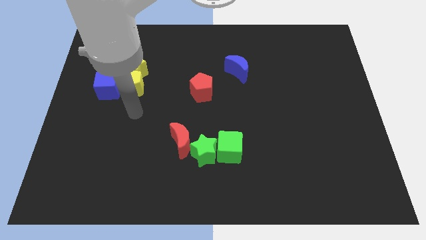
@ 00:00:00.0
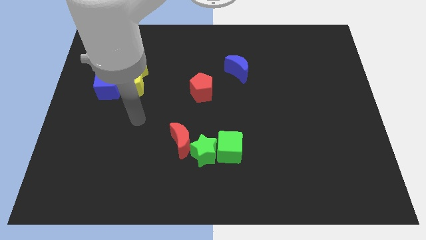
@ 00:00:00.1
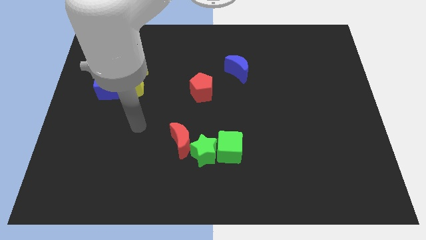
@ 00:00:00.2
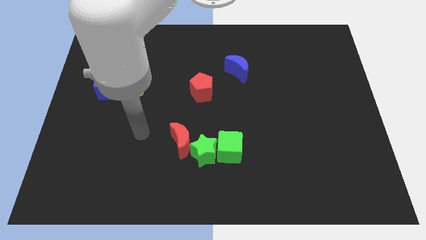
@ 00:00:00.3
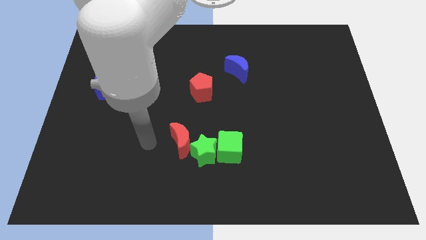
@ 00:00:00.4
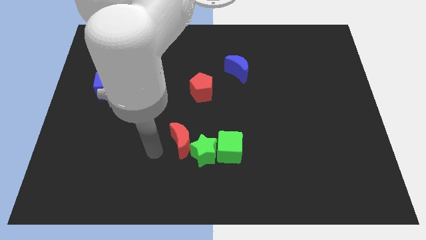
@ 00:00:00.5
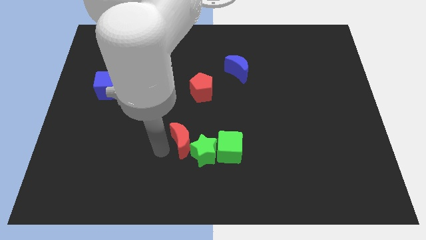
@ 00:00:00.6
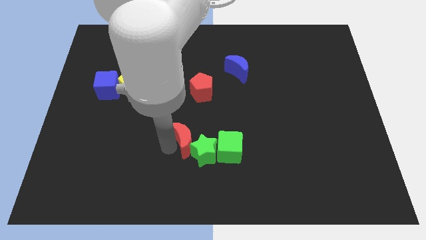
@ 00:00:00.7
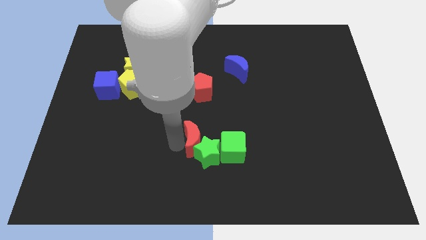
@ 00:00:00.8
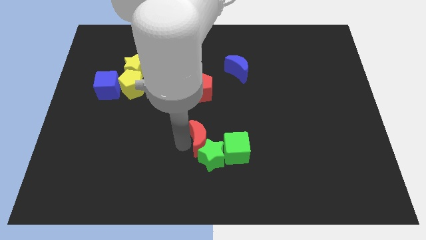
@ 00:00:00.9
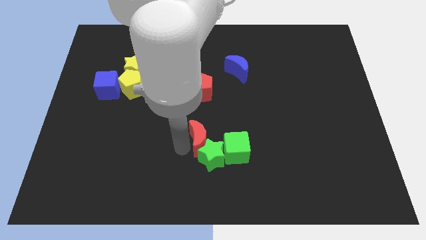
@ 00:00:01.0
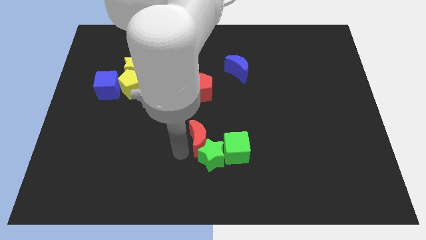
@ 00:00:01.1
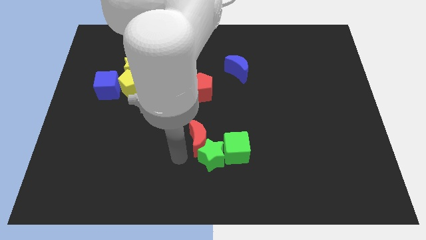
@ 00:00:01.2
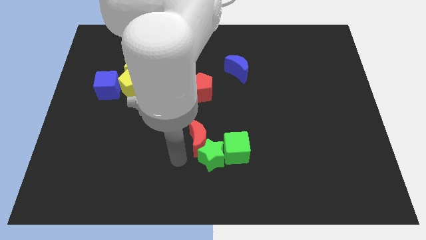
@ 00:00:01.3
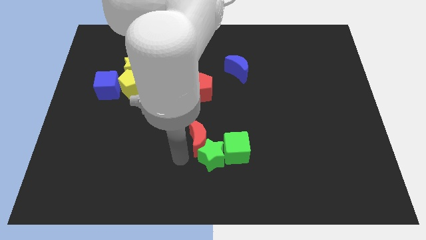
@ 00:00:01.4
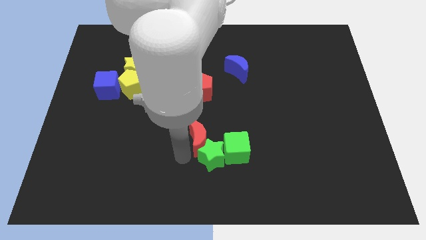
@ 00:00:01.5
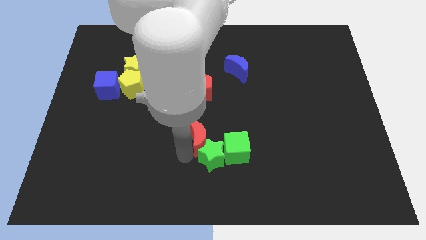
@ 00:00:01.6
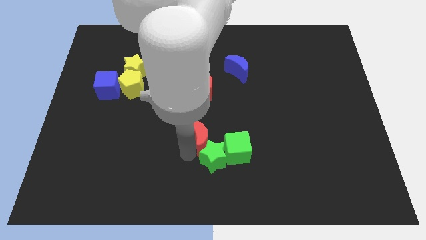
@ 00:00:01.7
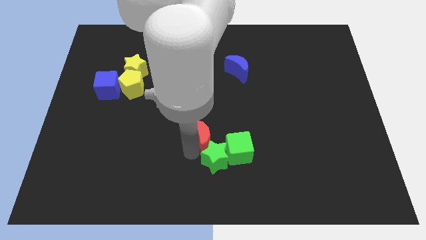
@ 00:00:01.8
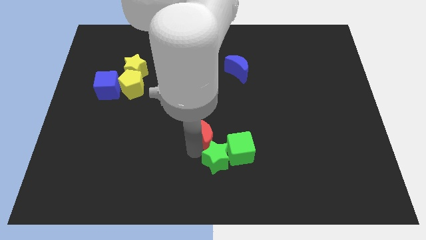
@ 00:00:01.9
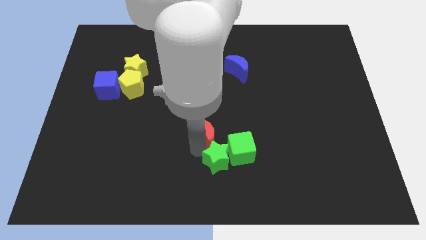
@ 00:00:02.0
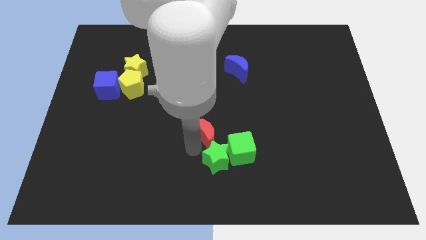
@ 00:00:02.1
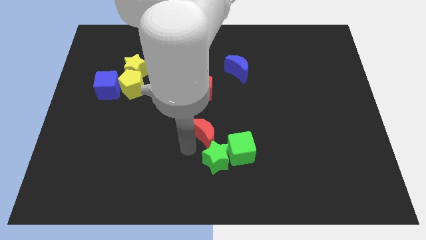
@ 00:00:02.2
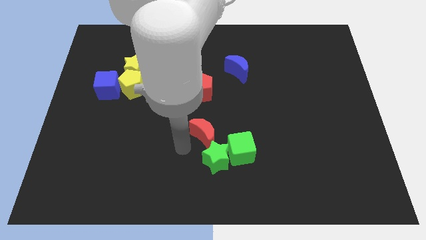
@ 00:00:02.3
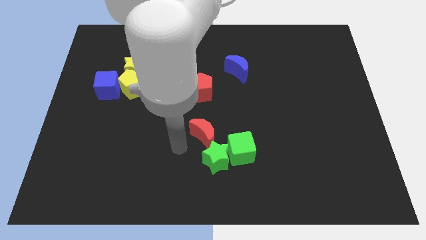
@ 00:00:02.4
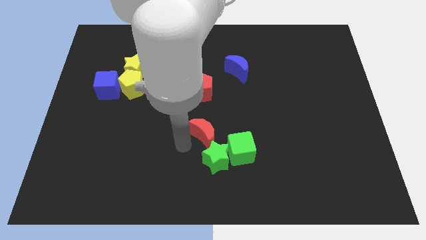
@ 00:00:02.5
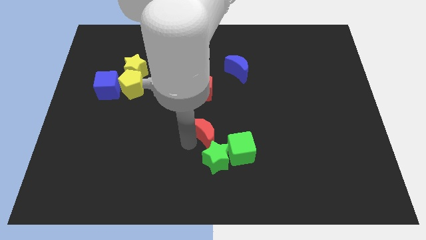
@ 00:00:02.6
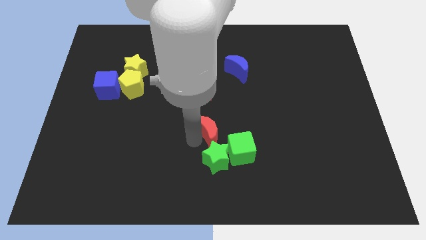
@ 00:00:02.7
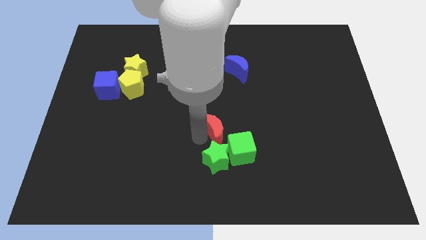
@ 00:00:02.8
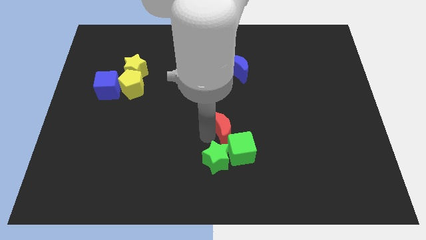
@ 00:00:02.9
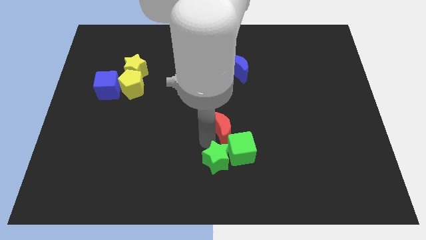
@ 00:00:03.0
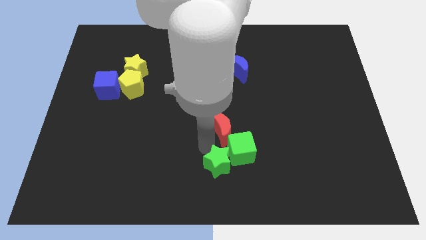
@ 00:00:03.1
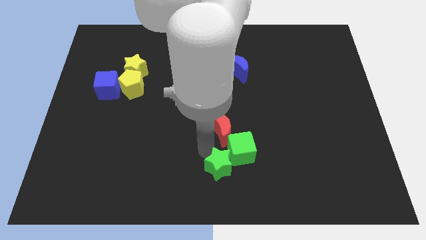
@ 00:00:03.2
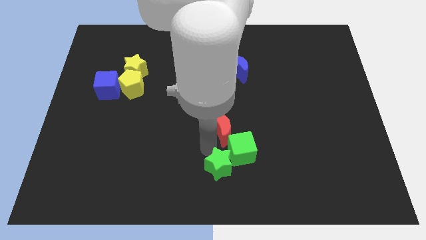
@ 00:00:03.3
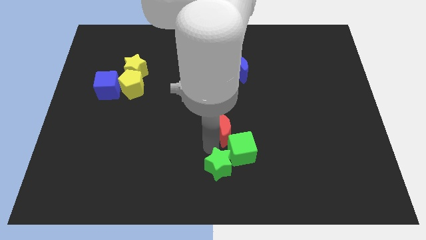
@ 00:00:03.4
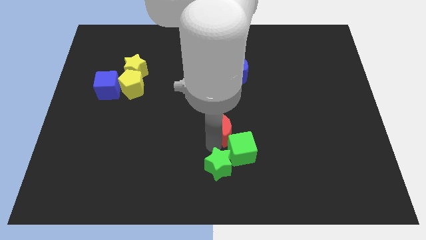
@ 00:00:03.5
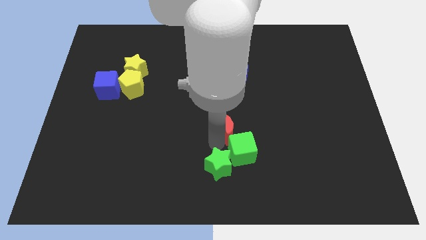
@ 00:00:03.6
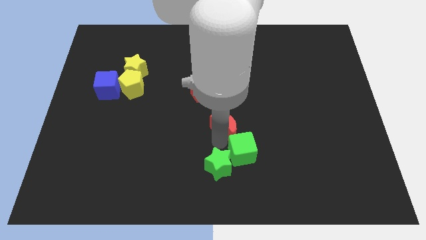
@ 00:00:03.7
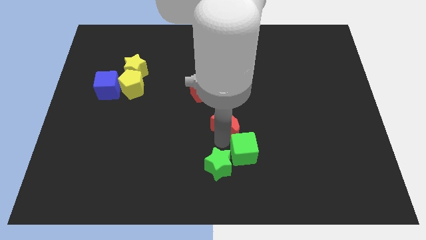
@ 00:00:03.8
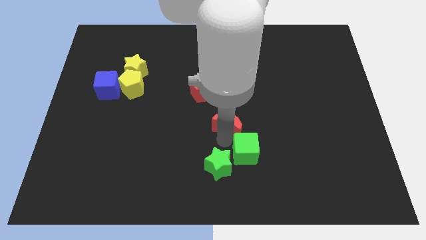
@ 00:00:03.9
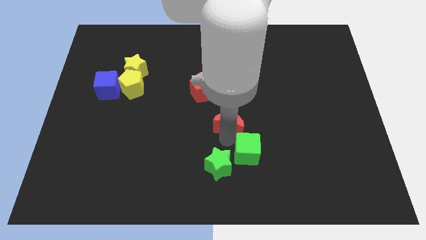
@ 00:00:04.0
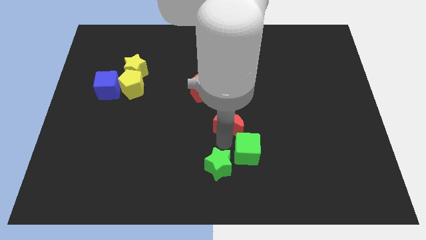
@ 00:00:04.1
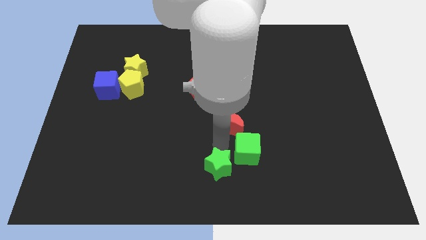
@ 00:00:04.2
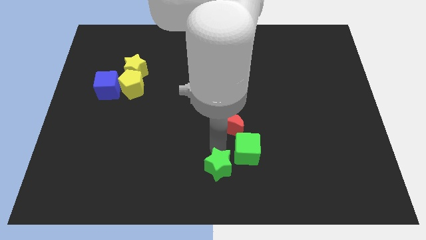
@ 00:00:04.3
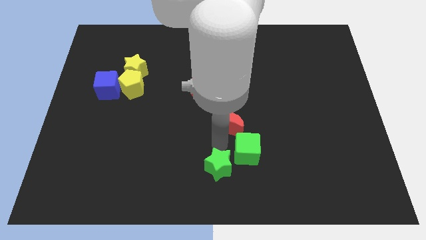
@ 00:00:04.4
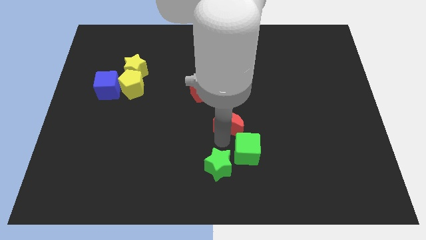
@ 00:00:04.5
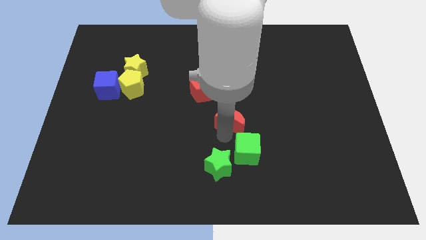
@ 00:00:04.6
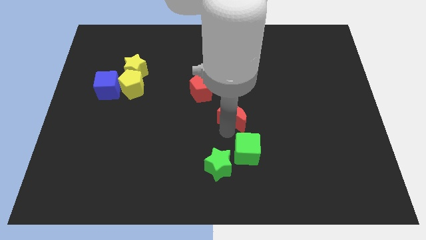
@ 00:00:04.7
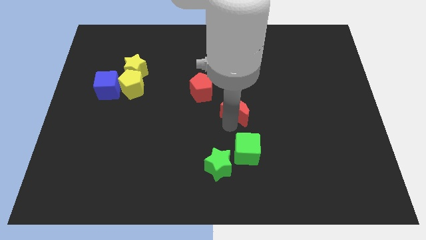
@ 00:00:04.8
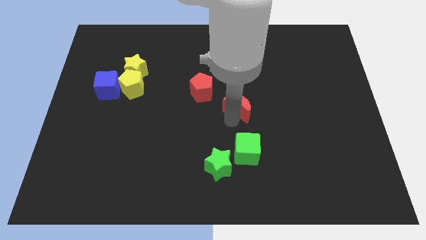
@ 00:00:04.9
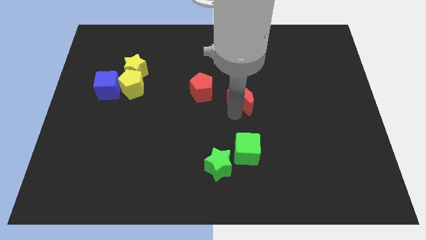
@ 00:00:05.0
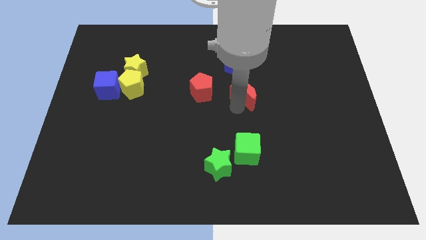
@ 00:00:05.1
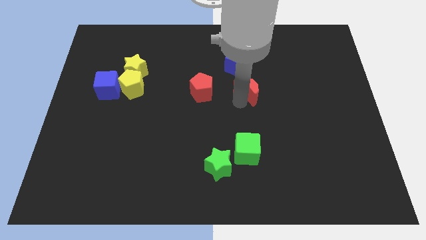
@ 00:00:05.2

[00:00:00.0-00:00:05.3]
push the red moon to the bottom right side of the blue moon

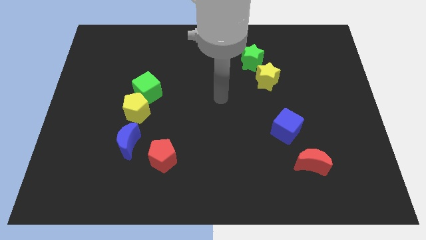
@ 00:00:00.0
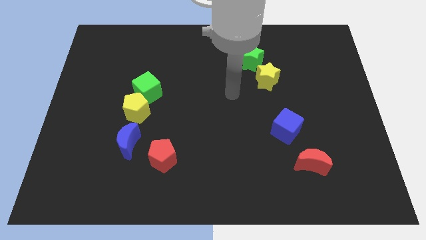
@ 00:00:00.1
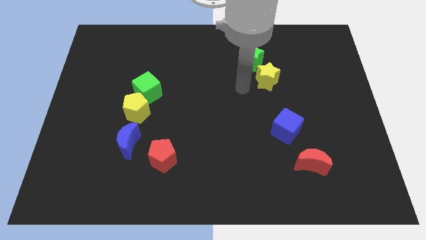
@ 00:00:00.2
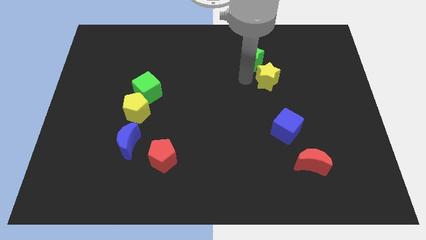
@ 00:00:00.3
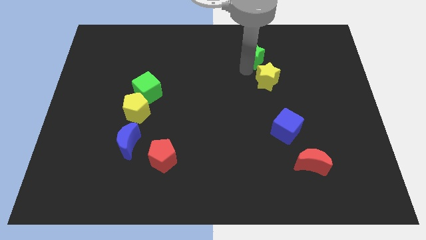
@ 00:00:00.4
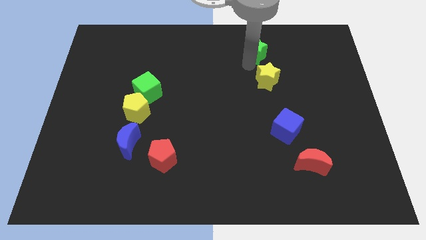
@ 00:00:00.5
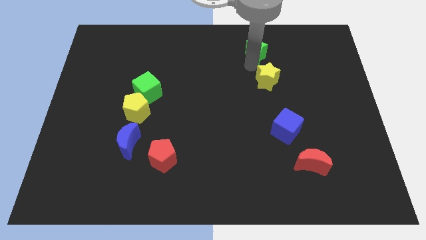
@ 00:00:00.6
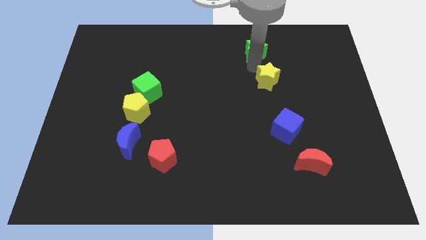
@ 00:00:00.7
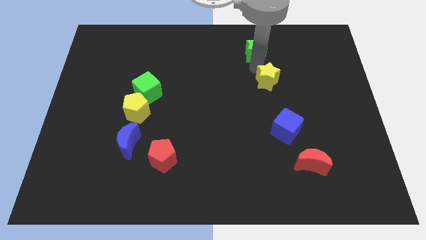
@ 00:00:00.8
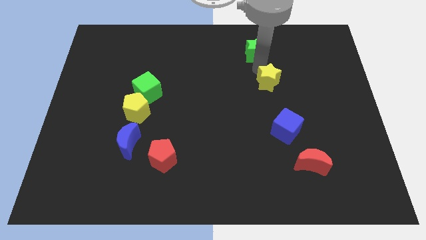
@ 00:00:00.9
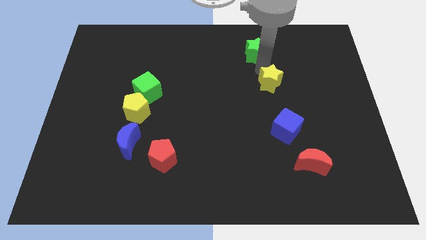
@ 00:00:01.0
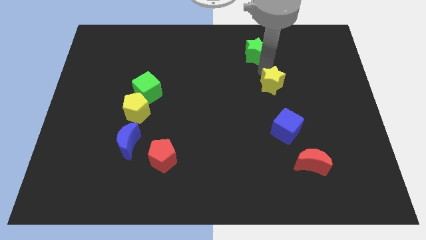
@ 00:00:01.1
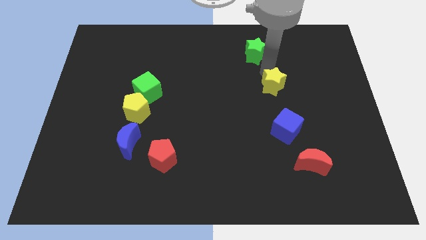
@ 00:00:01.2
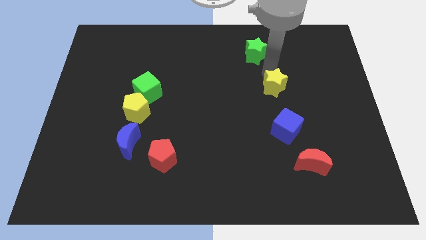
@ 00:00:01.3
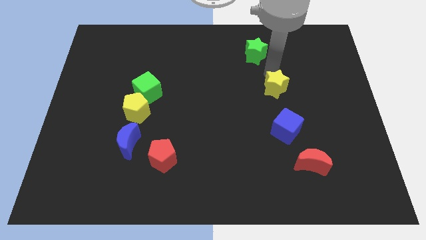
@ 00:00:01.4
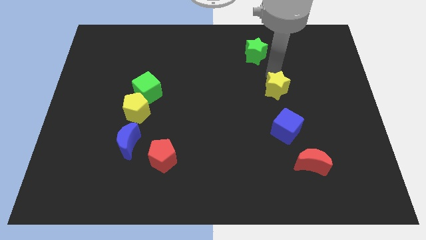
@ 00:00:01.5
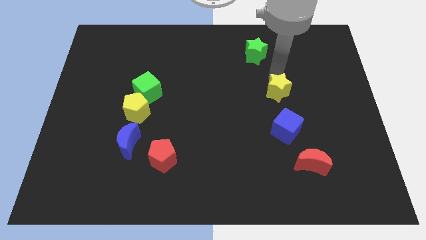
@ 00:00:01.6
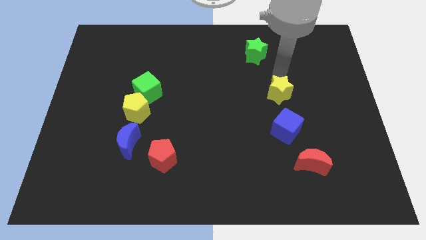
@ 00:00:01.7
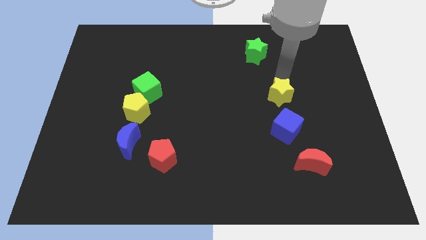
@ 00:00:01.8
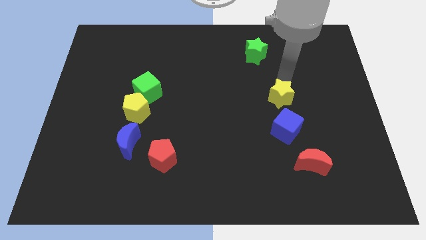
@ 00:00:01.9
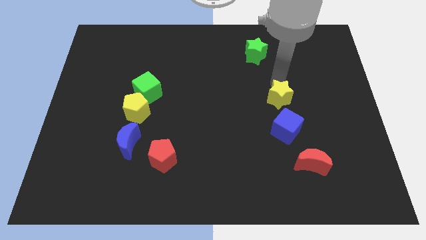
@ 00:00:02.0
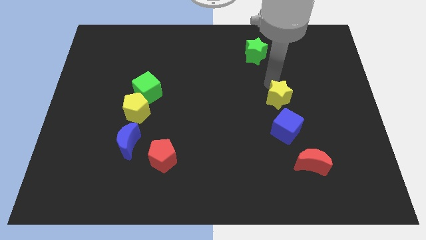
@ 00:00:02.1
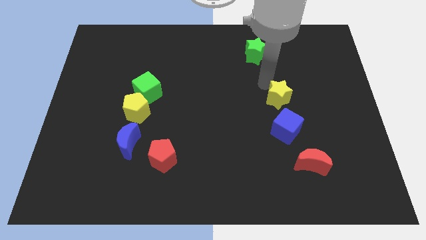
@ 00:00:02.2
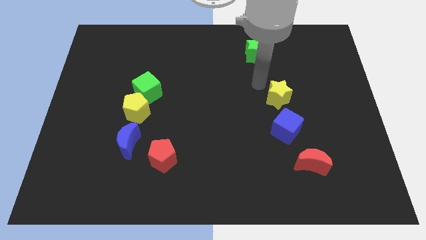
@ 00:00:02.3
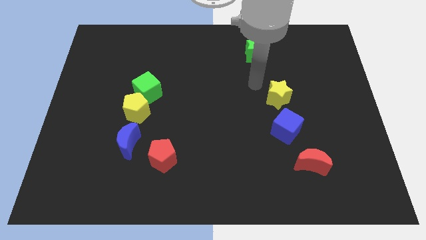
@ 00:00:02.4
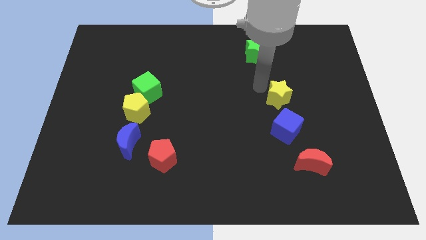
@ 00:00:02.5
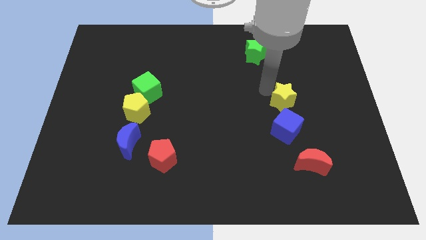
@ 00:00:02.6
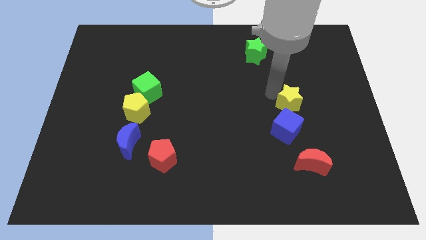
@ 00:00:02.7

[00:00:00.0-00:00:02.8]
slide the yellow star to the top right side of the blue cube
